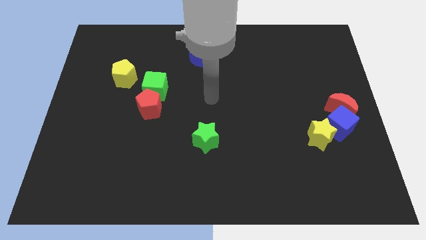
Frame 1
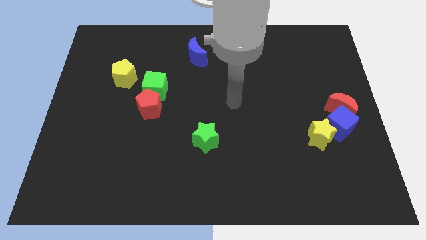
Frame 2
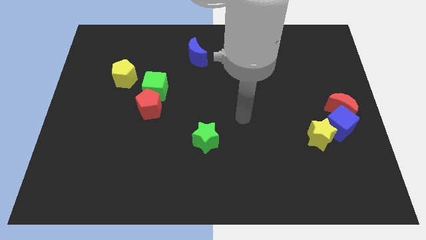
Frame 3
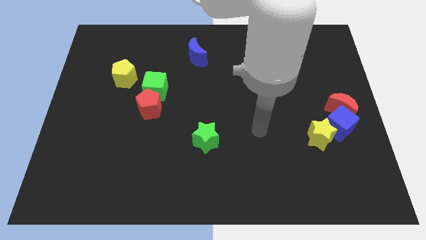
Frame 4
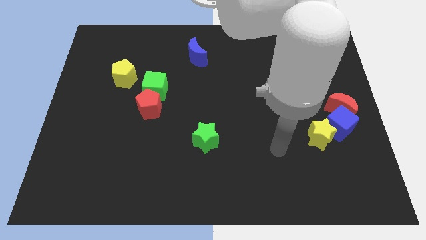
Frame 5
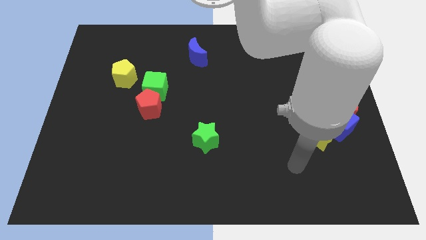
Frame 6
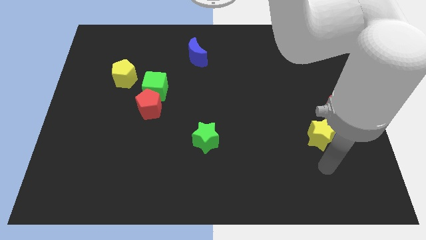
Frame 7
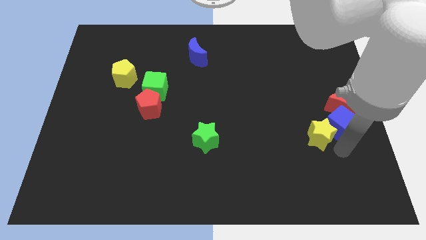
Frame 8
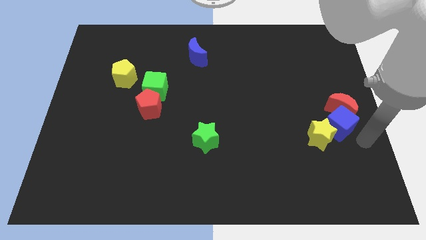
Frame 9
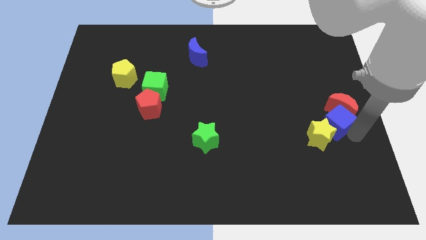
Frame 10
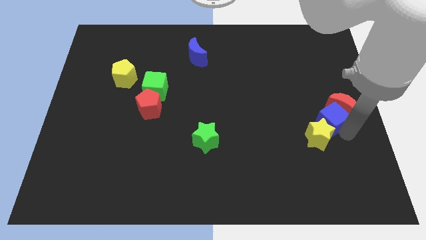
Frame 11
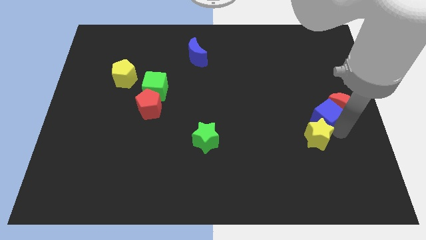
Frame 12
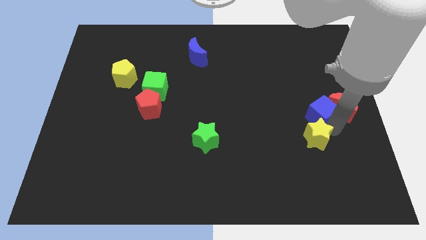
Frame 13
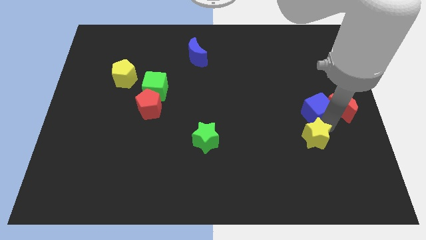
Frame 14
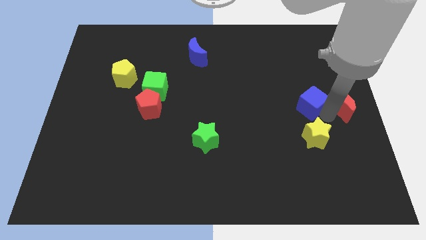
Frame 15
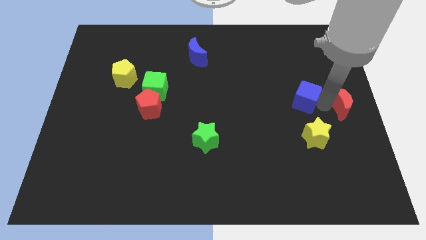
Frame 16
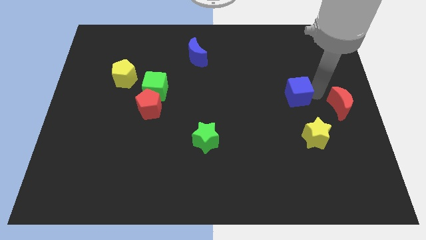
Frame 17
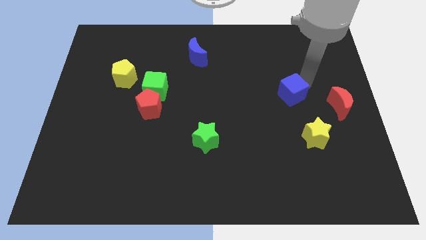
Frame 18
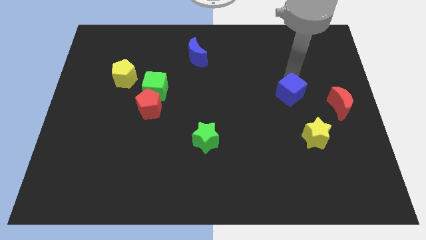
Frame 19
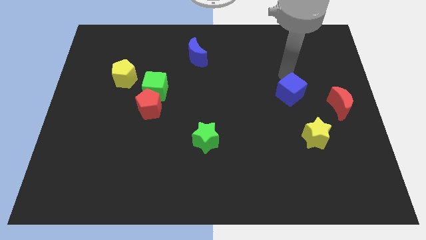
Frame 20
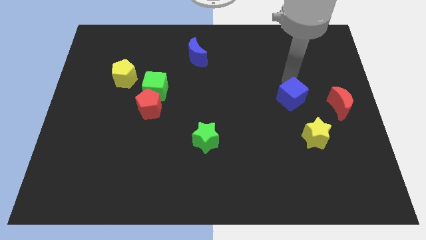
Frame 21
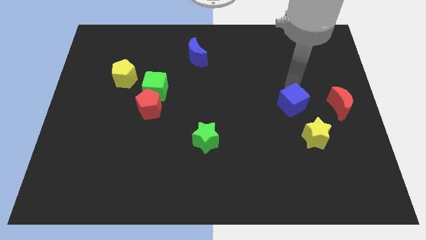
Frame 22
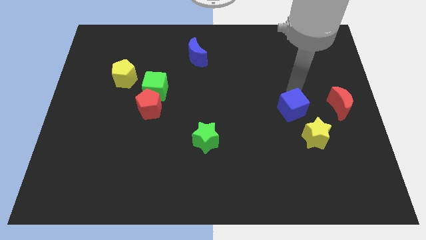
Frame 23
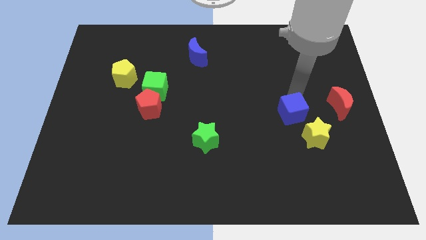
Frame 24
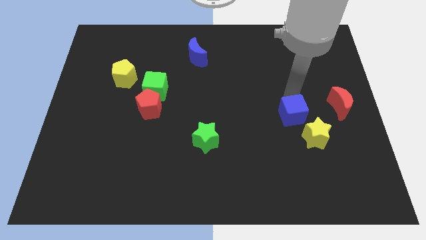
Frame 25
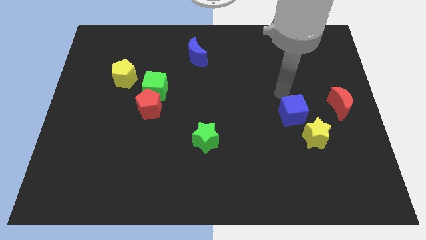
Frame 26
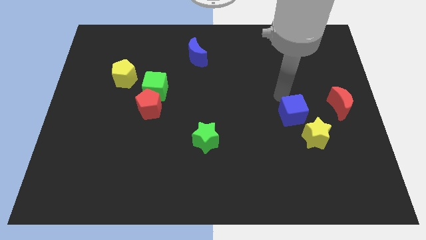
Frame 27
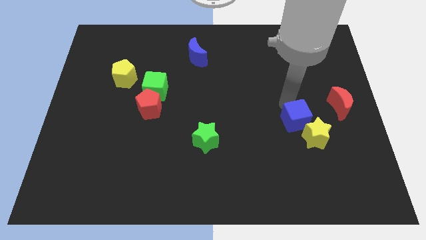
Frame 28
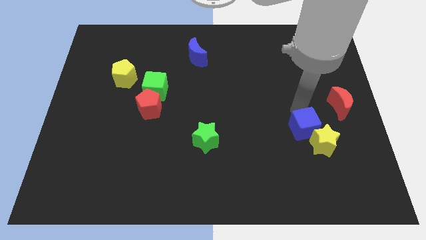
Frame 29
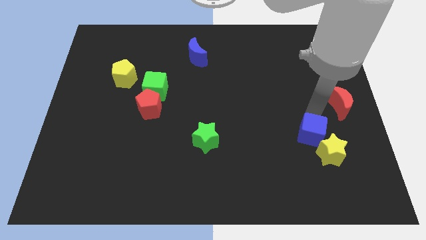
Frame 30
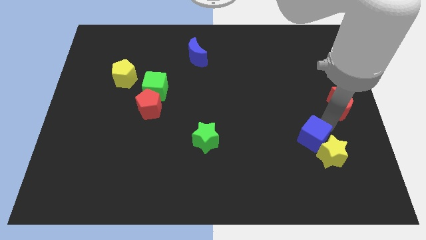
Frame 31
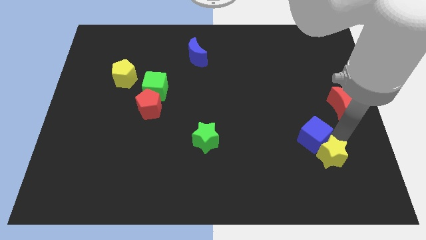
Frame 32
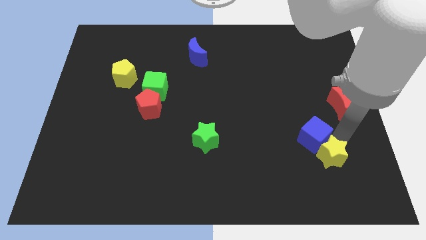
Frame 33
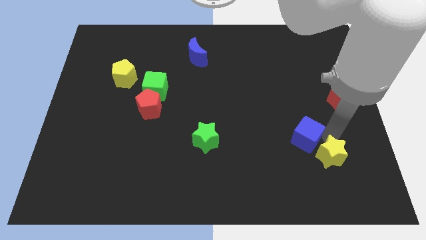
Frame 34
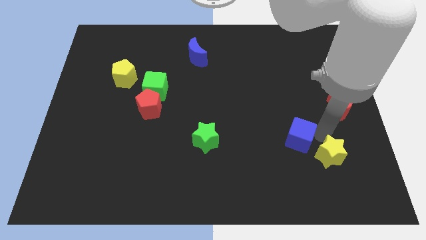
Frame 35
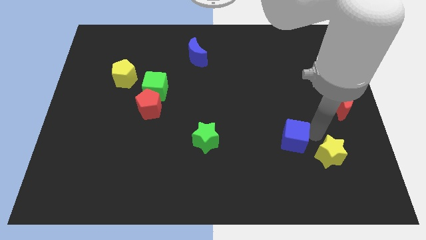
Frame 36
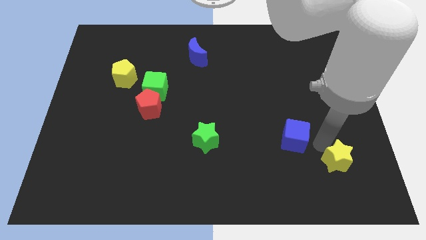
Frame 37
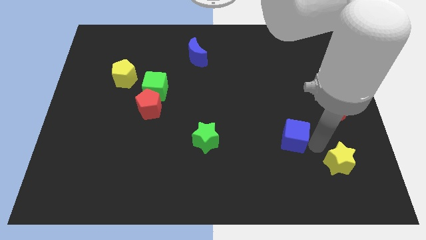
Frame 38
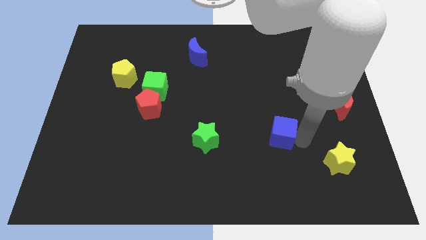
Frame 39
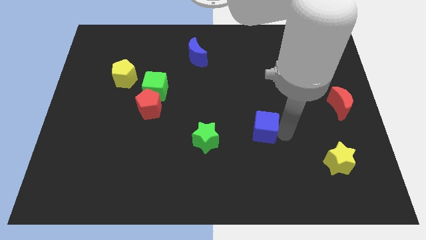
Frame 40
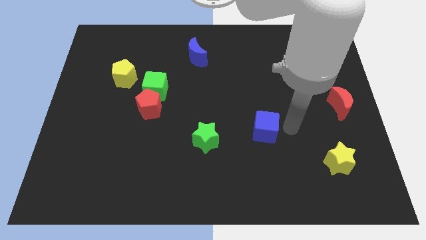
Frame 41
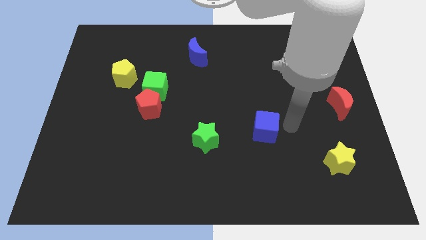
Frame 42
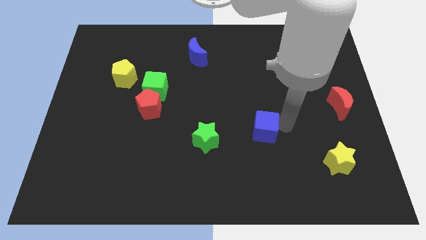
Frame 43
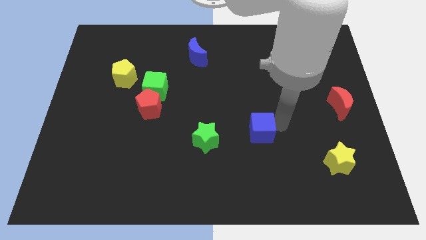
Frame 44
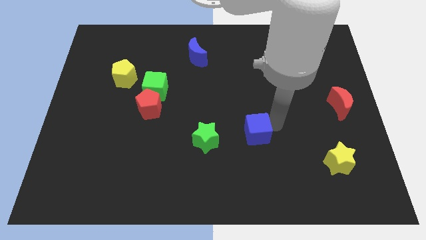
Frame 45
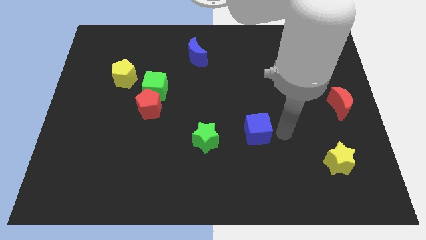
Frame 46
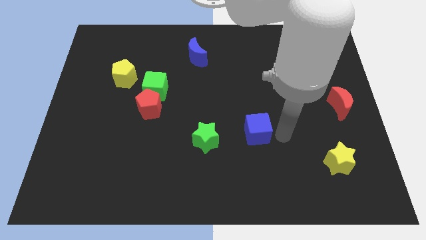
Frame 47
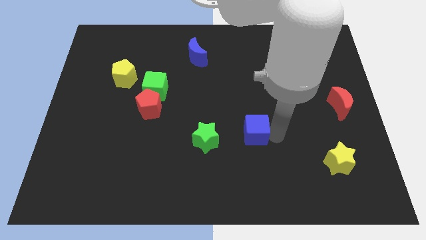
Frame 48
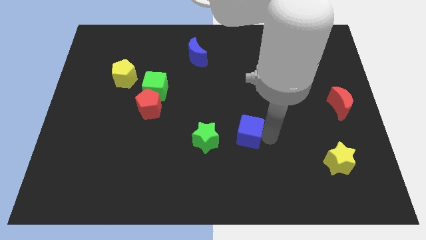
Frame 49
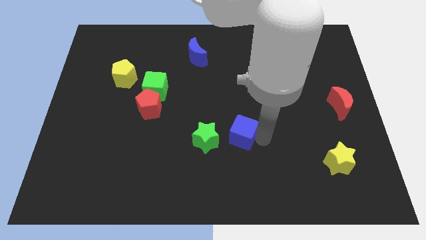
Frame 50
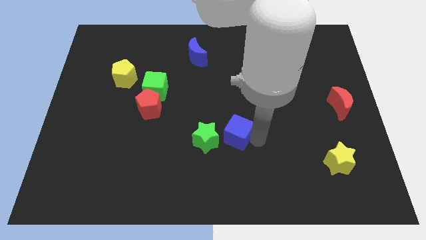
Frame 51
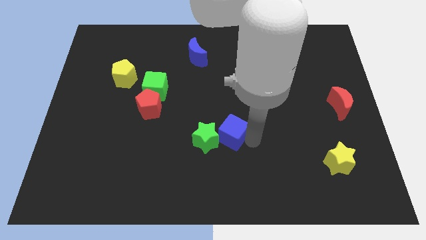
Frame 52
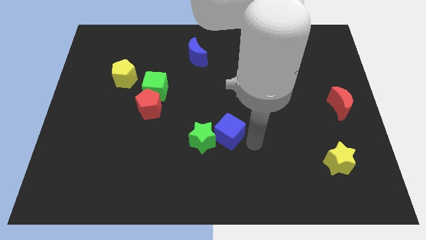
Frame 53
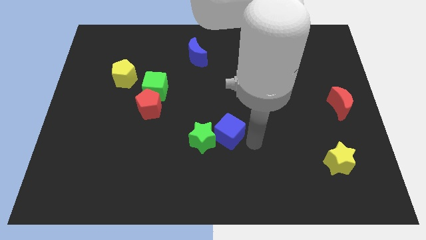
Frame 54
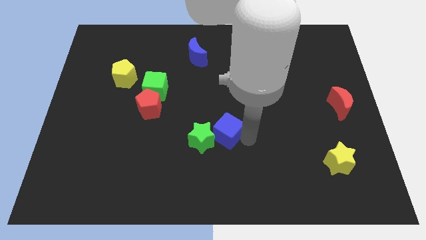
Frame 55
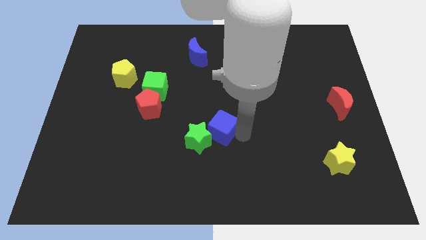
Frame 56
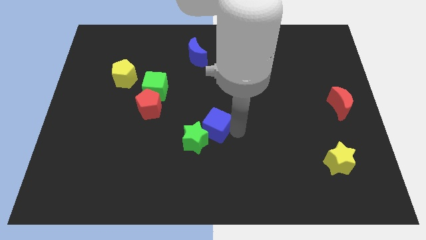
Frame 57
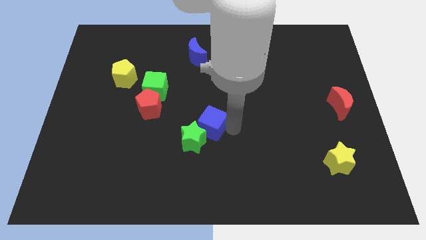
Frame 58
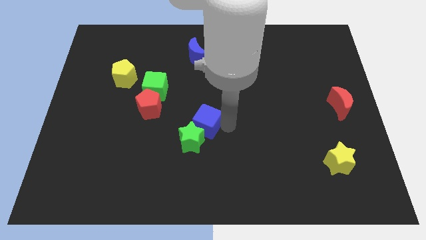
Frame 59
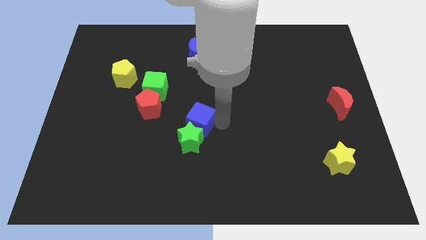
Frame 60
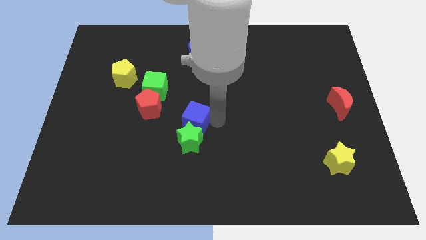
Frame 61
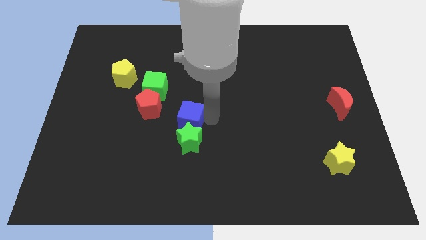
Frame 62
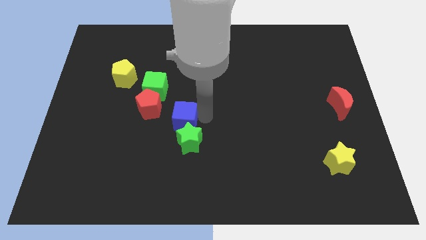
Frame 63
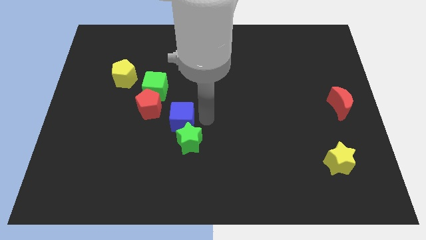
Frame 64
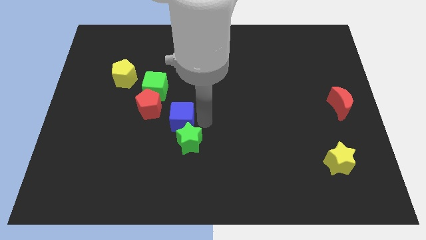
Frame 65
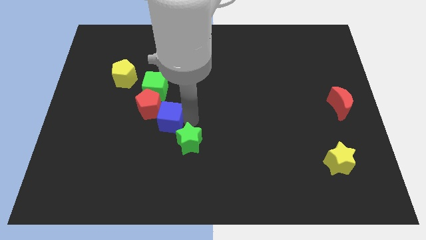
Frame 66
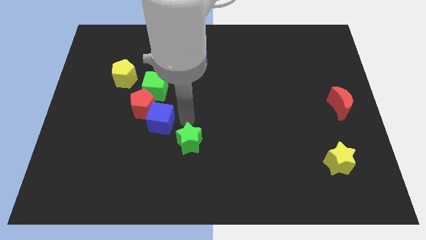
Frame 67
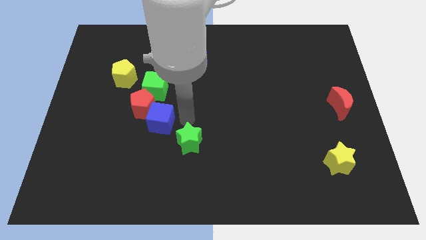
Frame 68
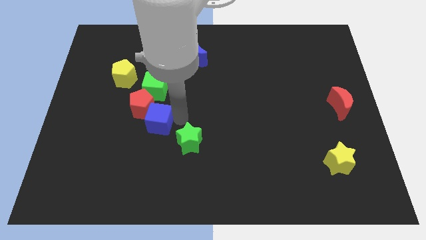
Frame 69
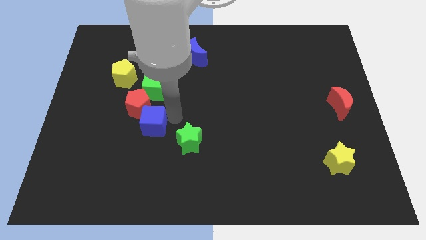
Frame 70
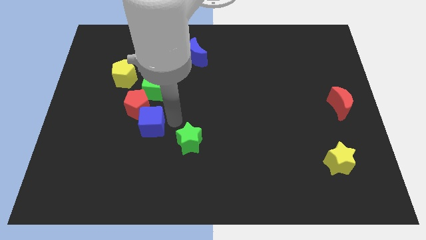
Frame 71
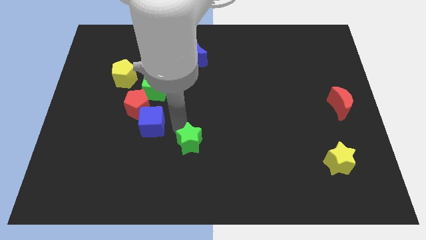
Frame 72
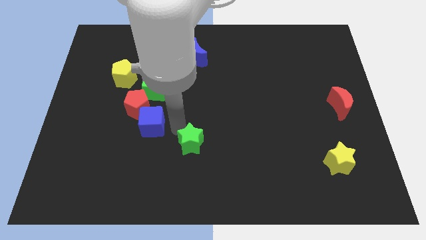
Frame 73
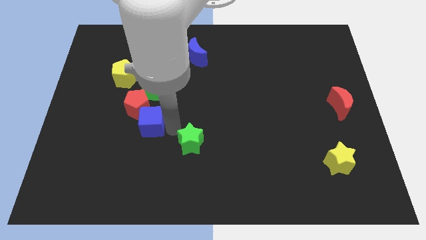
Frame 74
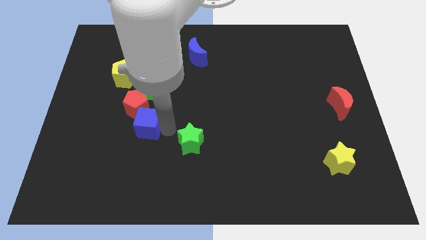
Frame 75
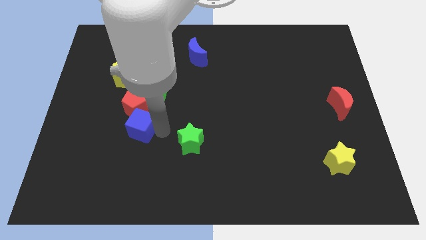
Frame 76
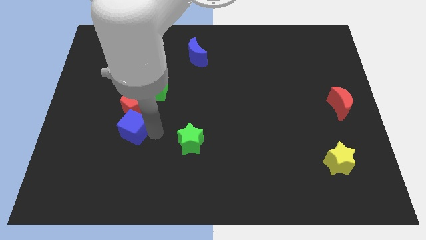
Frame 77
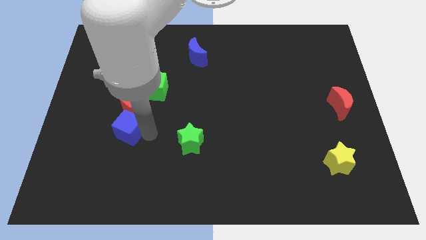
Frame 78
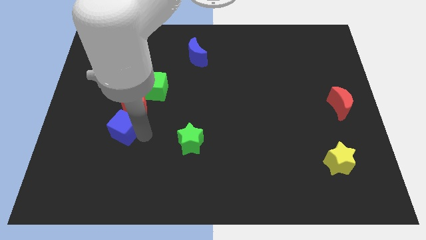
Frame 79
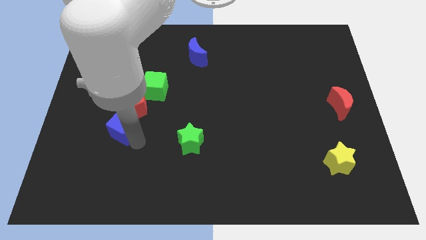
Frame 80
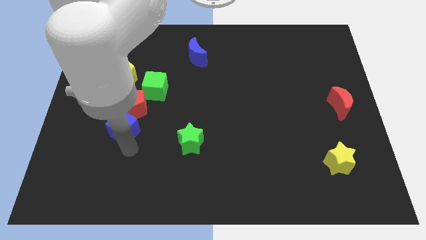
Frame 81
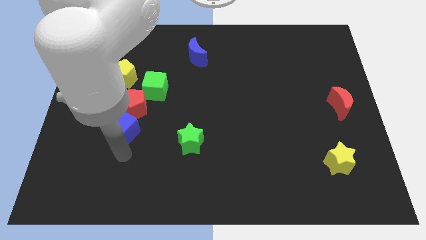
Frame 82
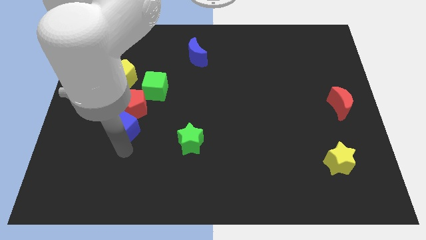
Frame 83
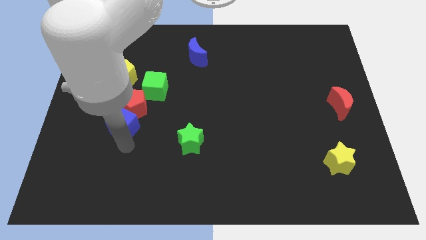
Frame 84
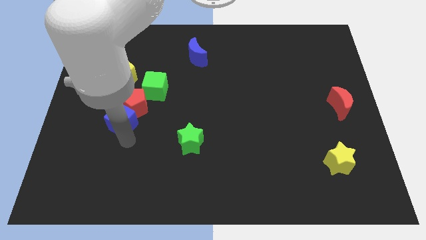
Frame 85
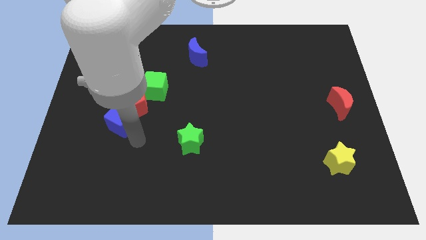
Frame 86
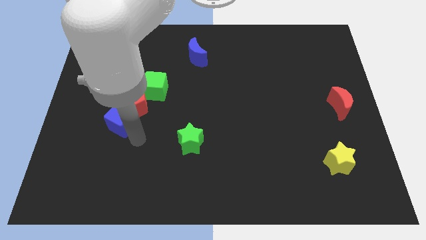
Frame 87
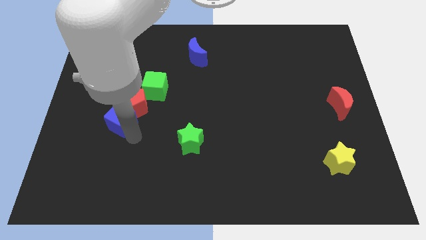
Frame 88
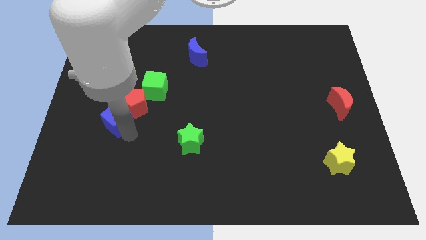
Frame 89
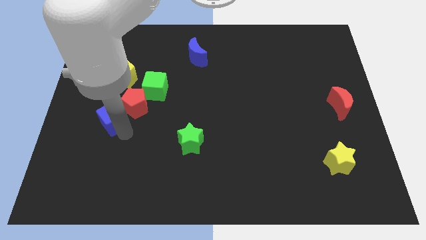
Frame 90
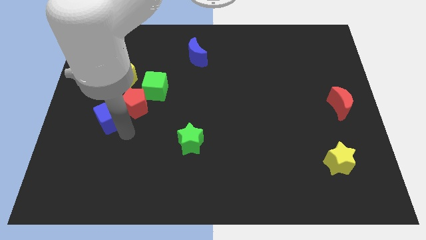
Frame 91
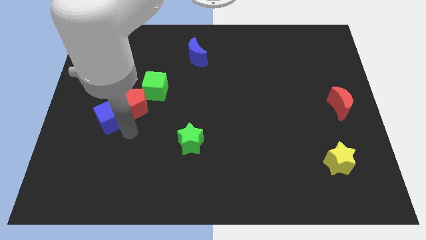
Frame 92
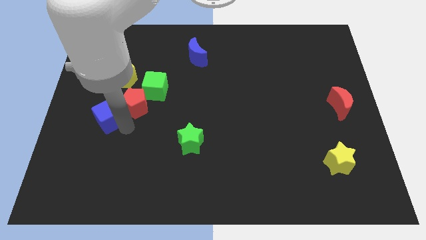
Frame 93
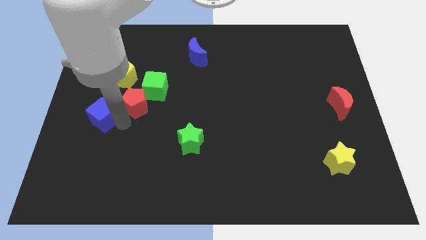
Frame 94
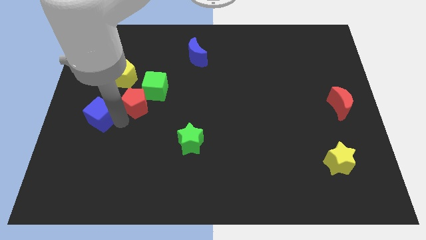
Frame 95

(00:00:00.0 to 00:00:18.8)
push the blue cube to the left side of the board
